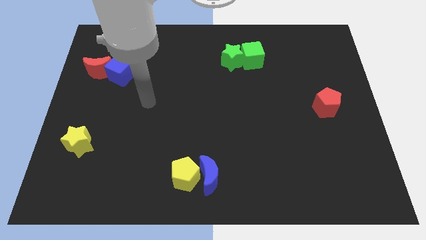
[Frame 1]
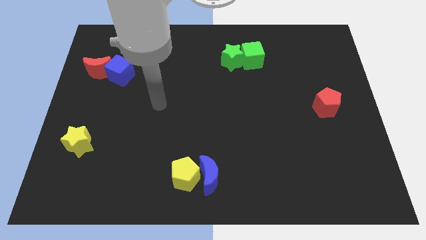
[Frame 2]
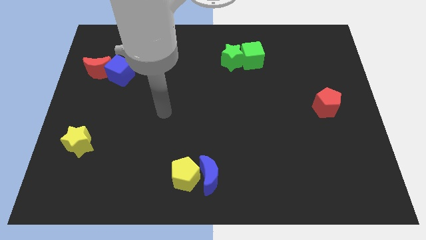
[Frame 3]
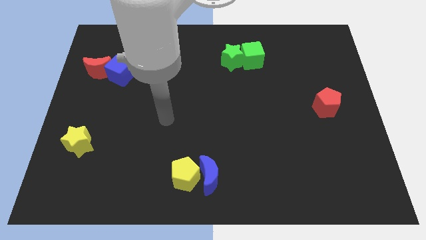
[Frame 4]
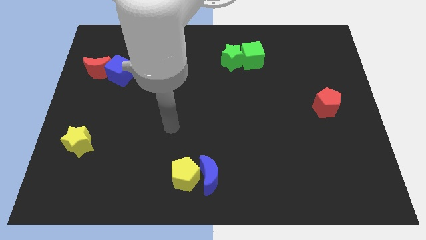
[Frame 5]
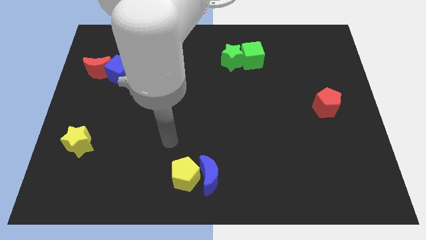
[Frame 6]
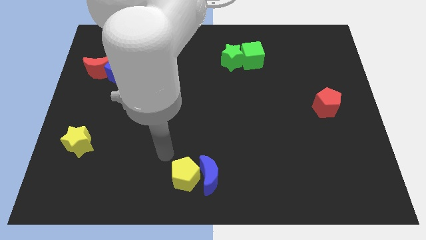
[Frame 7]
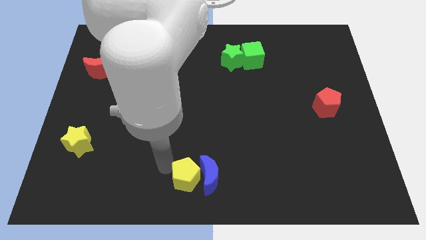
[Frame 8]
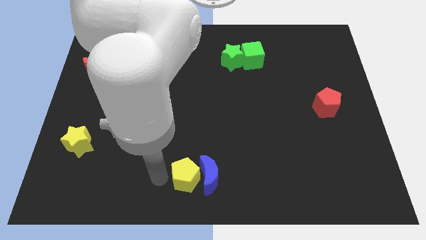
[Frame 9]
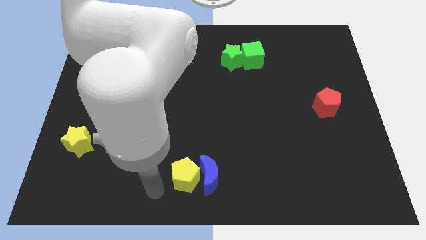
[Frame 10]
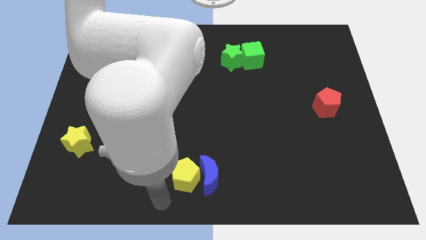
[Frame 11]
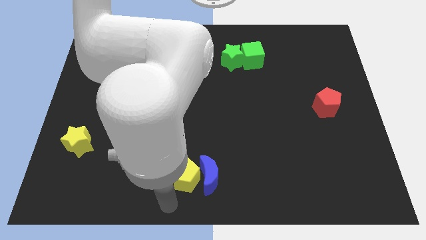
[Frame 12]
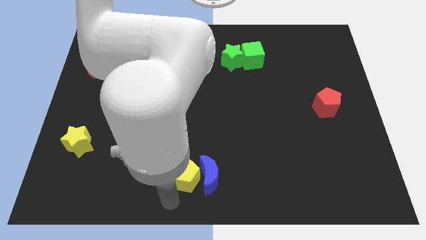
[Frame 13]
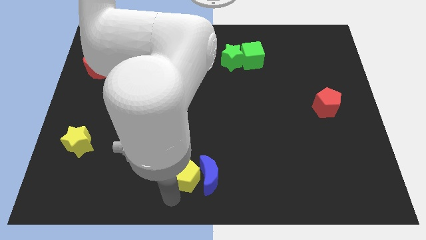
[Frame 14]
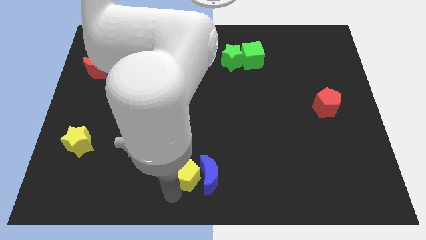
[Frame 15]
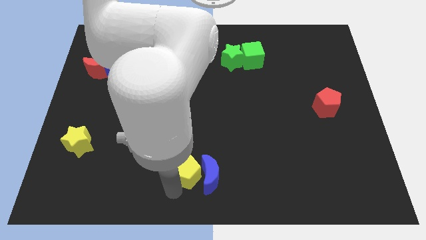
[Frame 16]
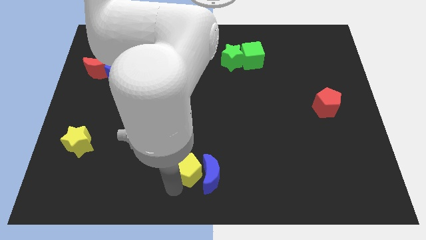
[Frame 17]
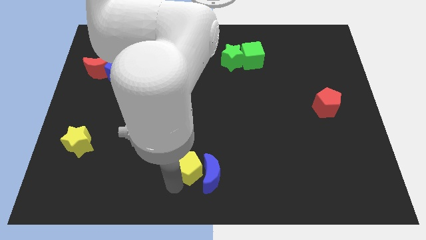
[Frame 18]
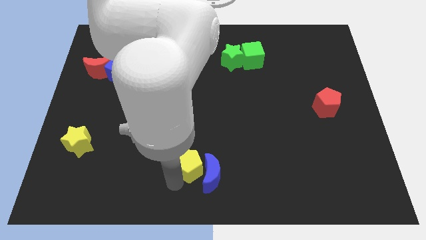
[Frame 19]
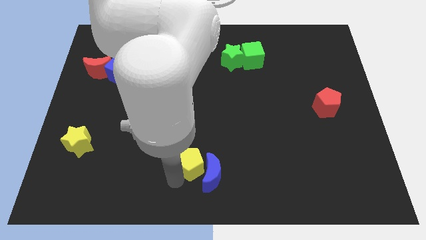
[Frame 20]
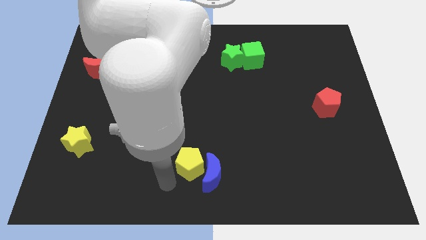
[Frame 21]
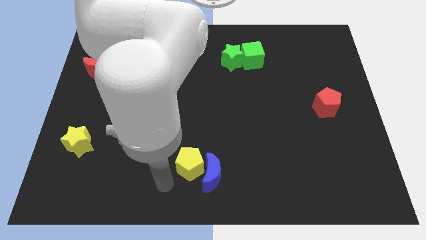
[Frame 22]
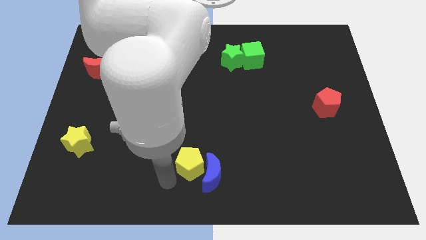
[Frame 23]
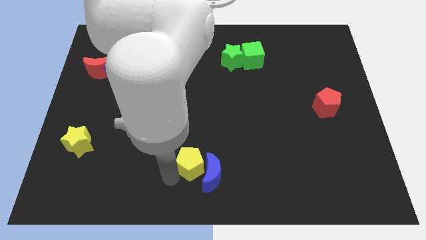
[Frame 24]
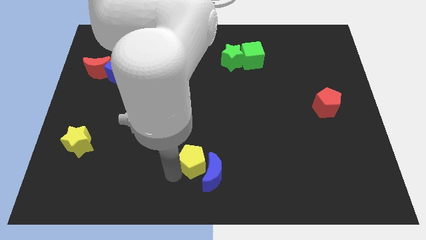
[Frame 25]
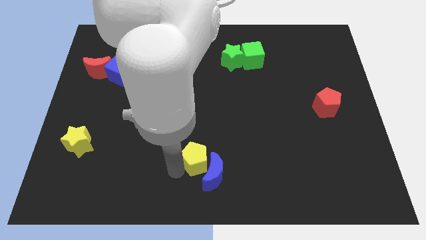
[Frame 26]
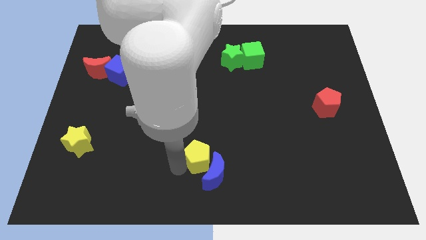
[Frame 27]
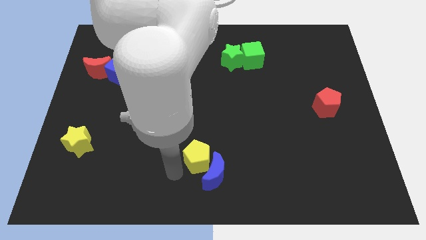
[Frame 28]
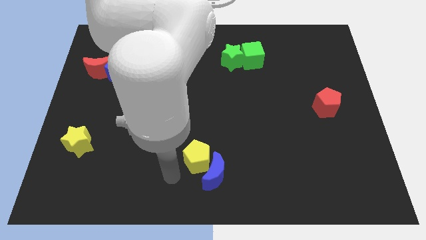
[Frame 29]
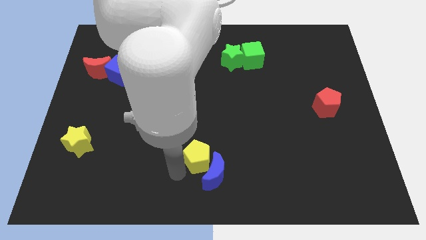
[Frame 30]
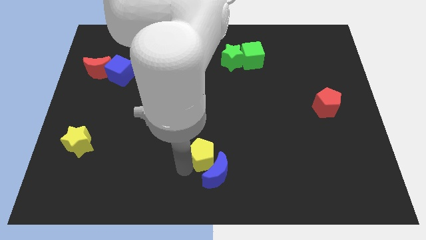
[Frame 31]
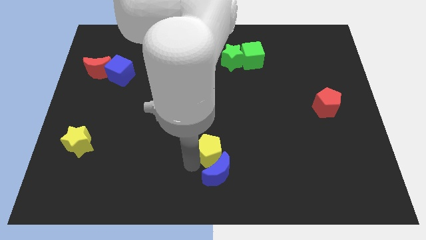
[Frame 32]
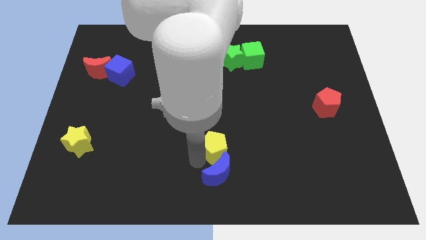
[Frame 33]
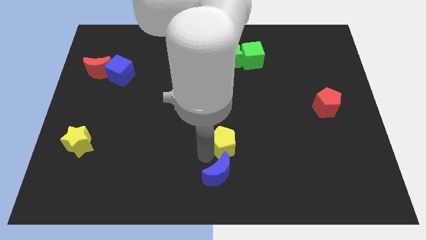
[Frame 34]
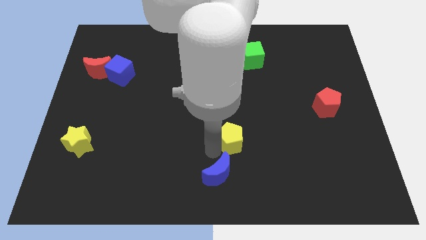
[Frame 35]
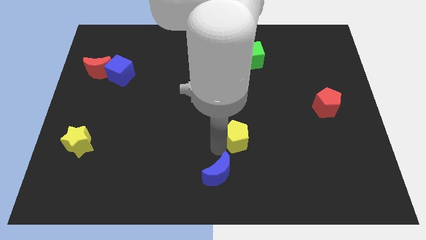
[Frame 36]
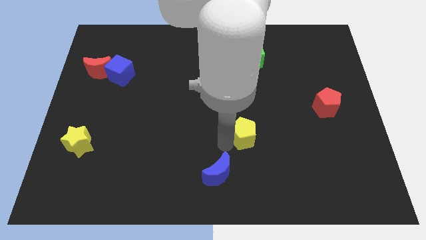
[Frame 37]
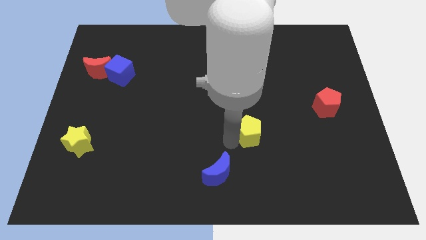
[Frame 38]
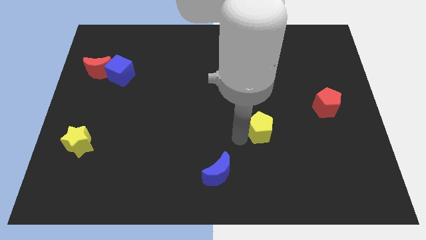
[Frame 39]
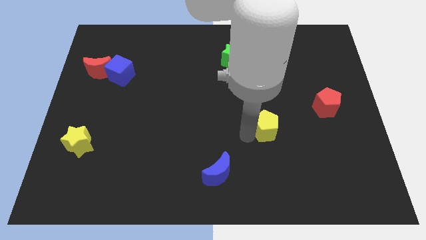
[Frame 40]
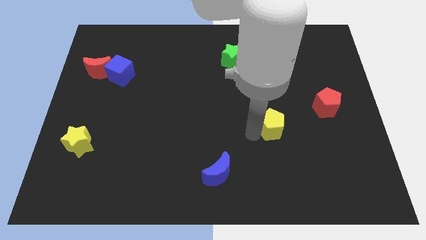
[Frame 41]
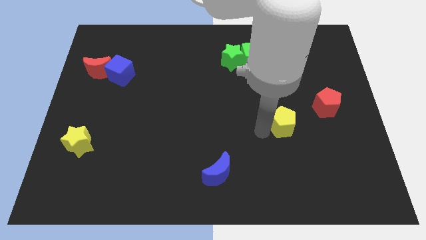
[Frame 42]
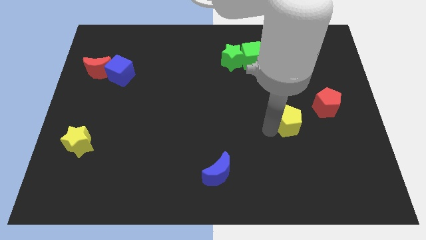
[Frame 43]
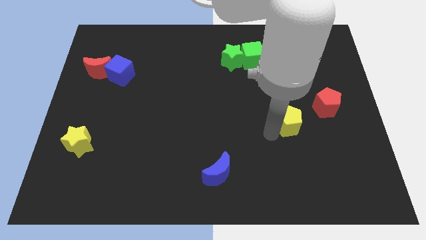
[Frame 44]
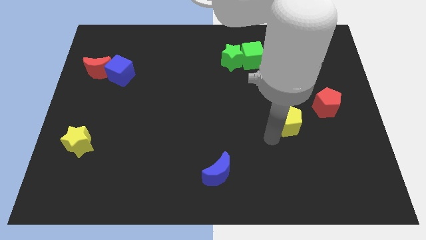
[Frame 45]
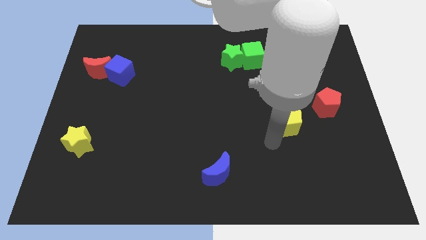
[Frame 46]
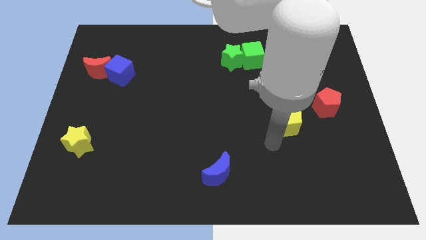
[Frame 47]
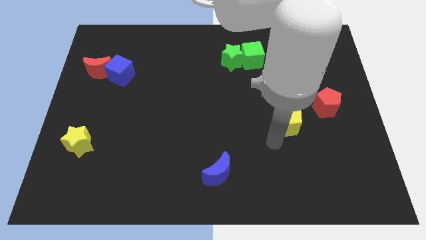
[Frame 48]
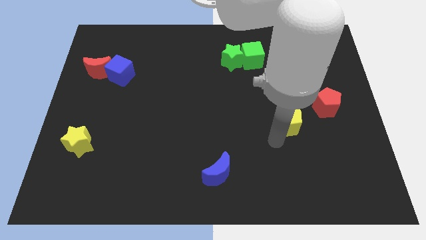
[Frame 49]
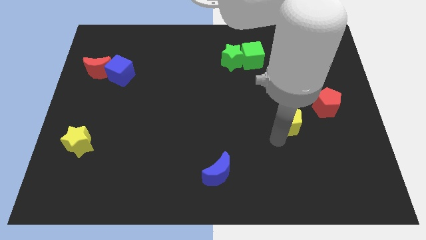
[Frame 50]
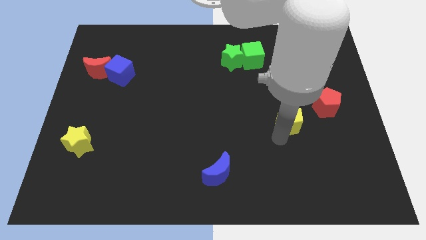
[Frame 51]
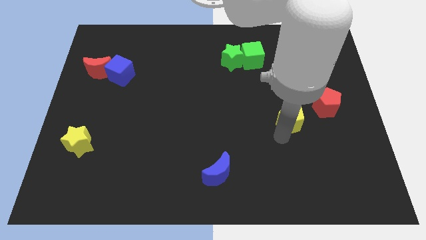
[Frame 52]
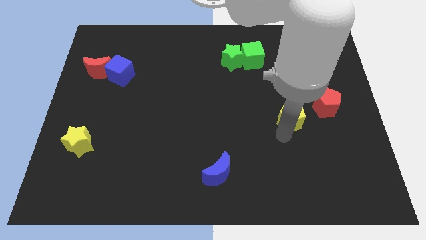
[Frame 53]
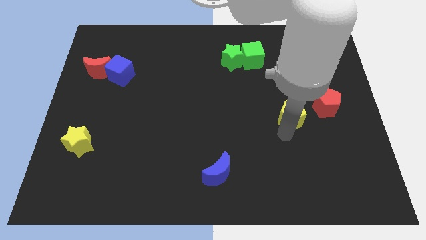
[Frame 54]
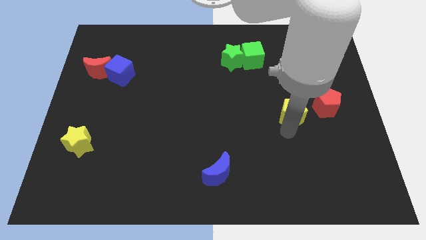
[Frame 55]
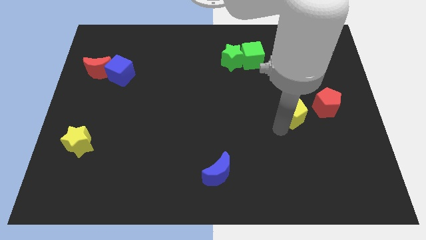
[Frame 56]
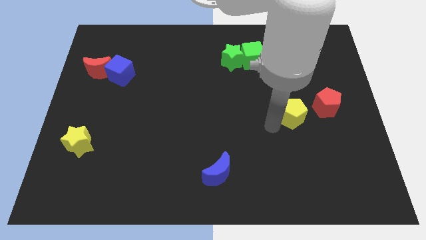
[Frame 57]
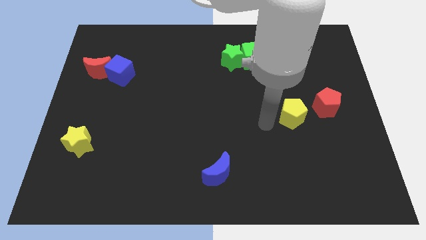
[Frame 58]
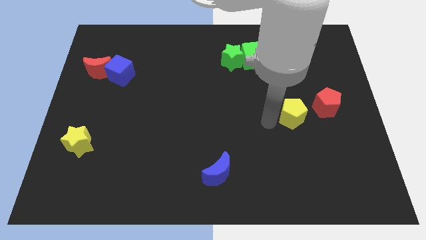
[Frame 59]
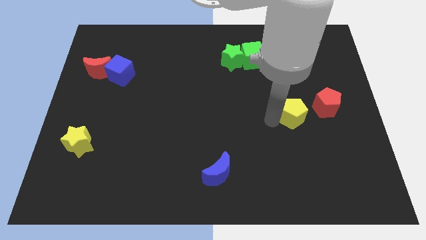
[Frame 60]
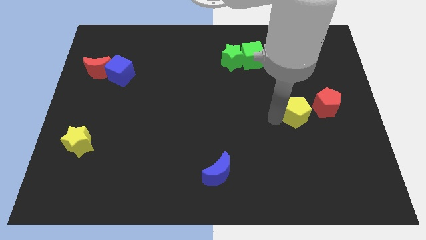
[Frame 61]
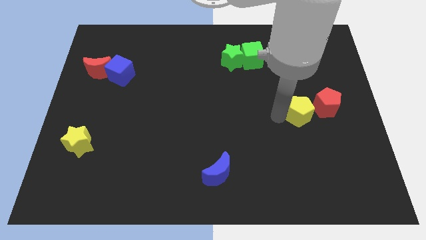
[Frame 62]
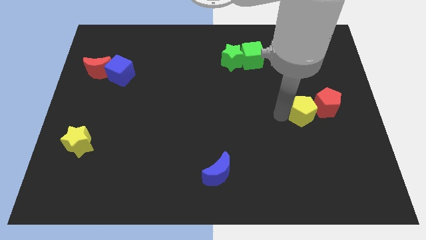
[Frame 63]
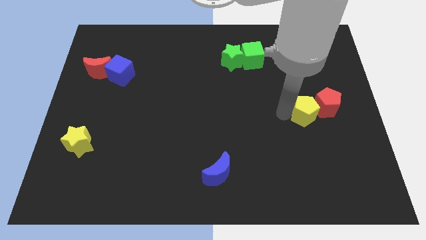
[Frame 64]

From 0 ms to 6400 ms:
put the yellow pentagon close to the red pentagon

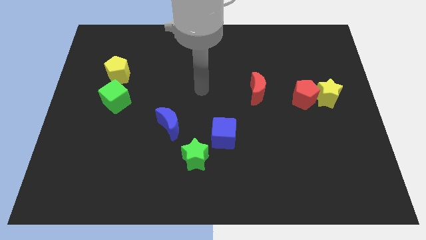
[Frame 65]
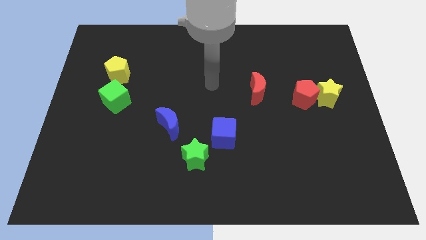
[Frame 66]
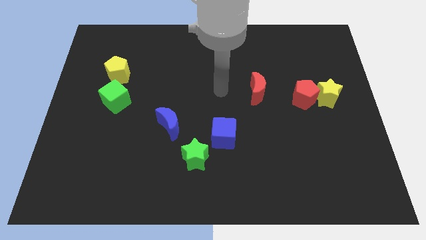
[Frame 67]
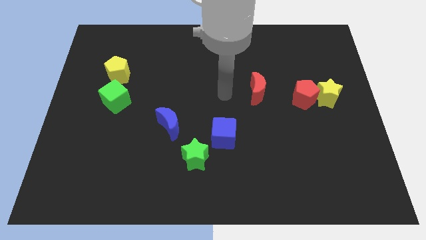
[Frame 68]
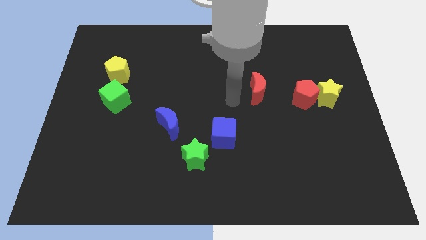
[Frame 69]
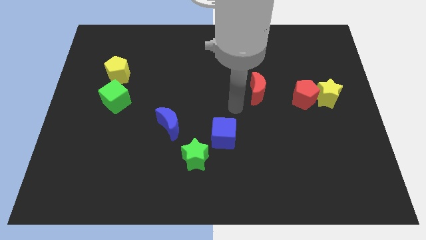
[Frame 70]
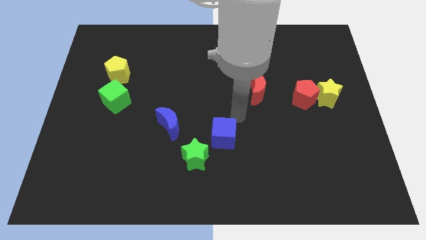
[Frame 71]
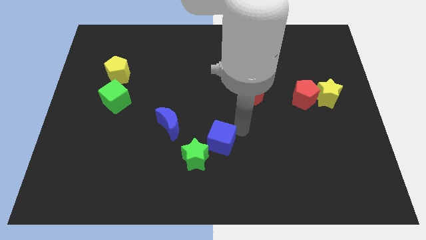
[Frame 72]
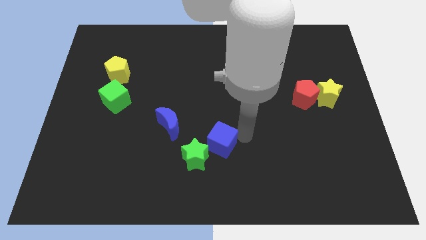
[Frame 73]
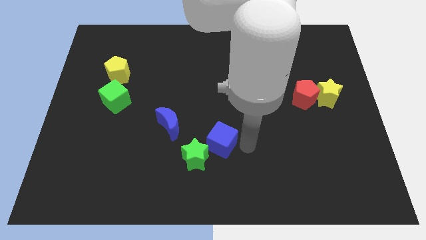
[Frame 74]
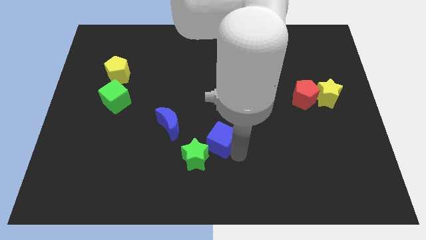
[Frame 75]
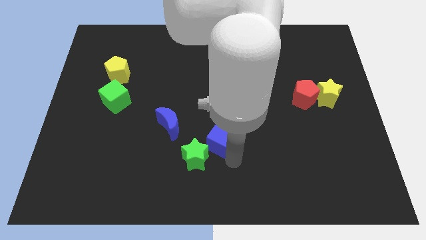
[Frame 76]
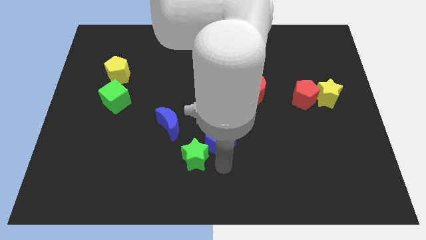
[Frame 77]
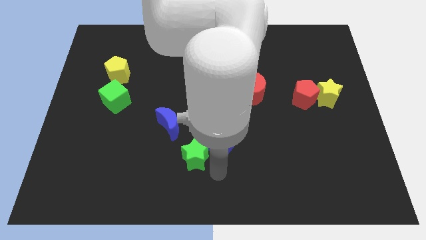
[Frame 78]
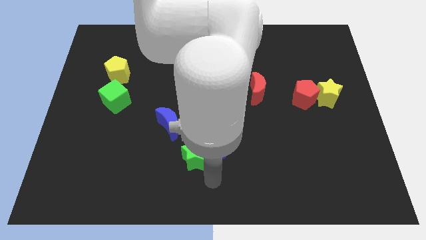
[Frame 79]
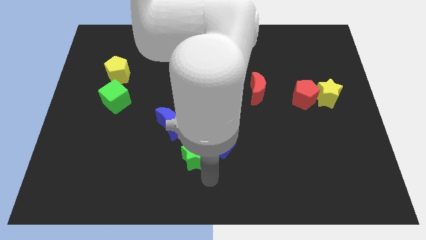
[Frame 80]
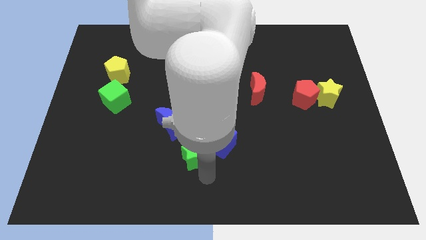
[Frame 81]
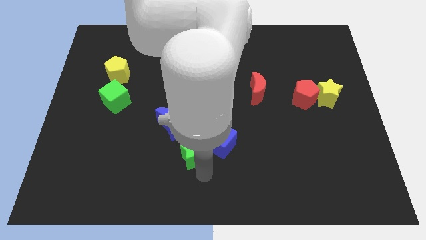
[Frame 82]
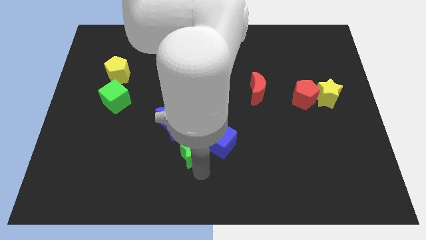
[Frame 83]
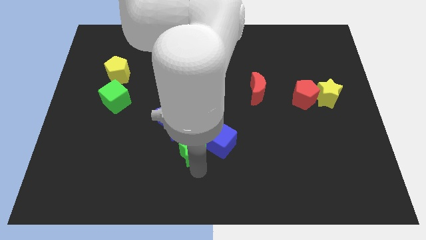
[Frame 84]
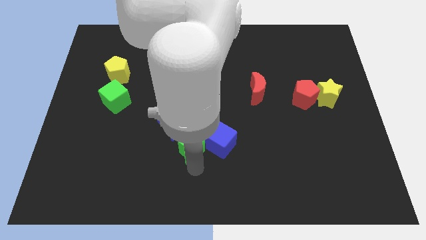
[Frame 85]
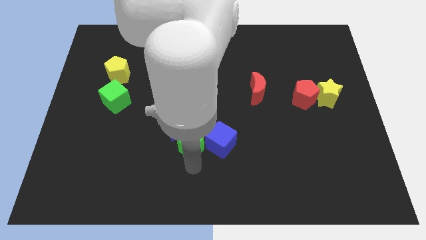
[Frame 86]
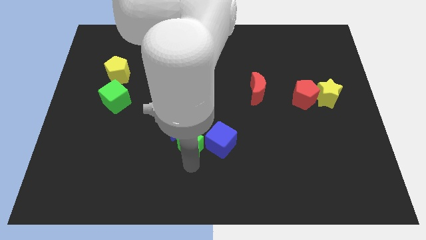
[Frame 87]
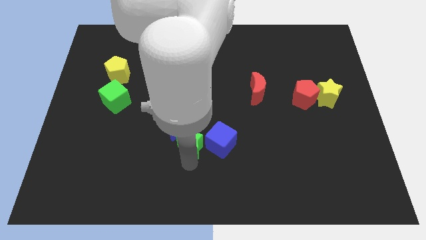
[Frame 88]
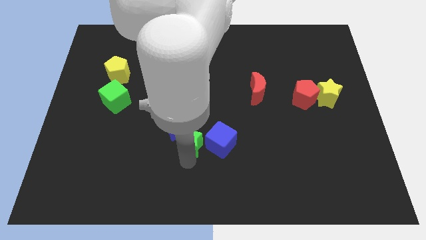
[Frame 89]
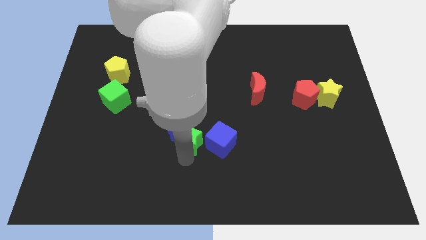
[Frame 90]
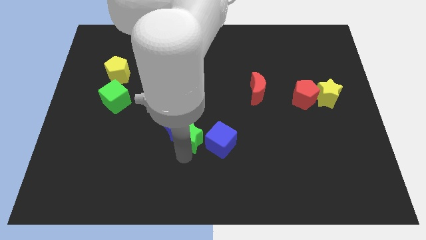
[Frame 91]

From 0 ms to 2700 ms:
move the green star next to the blue moon
